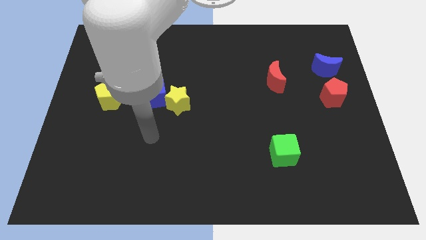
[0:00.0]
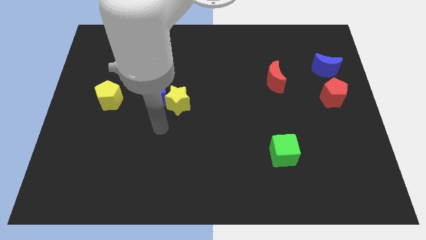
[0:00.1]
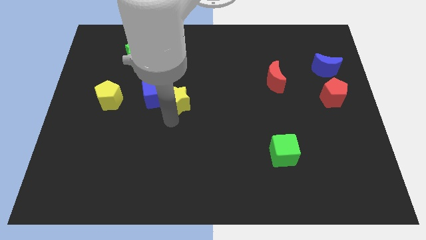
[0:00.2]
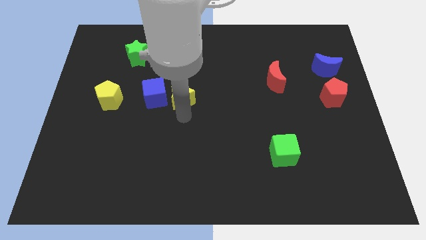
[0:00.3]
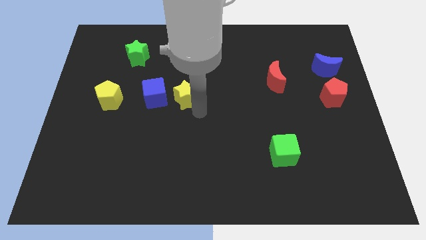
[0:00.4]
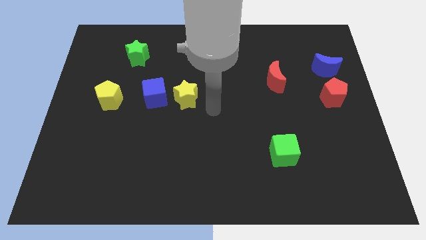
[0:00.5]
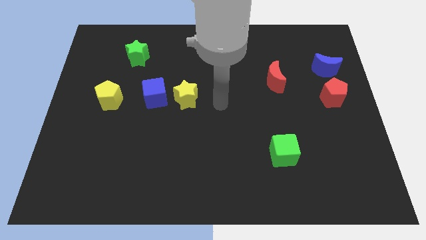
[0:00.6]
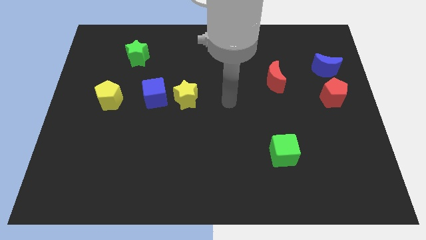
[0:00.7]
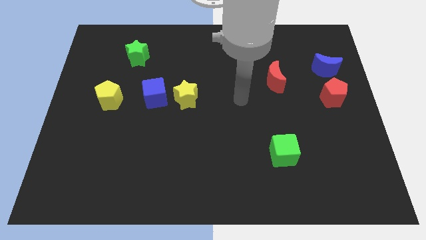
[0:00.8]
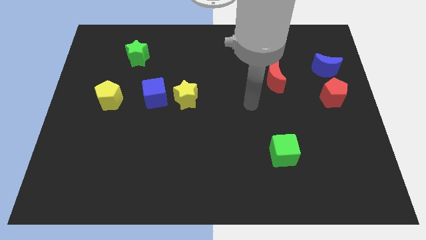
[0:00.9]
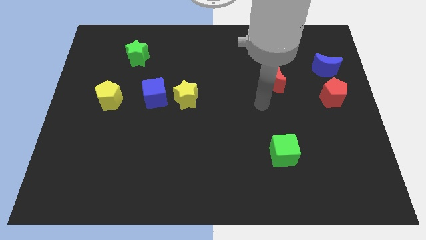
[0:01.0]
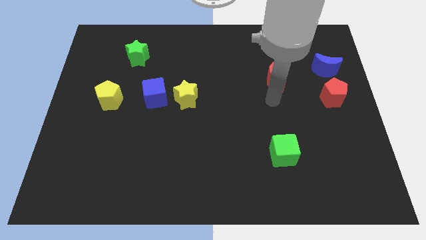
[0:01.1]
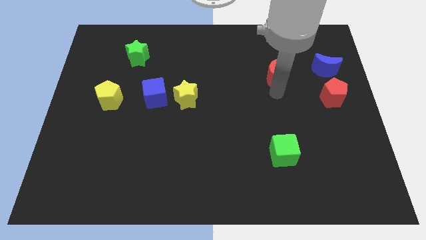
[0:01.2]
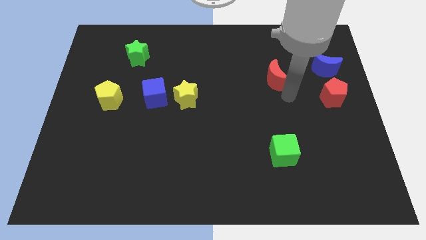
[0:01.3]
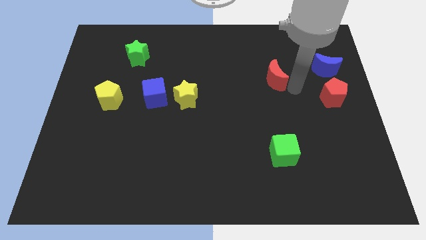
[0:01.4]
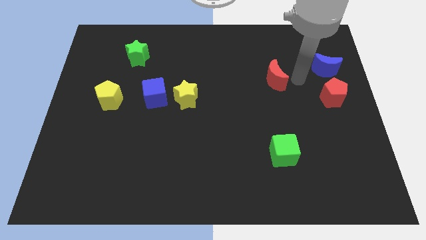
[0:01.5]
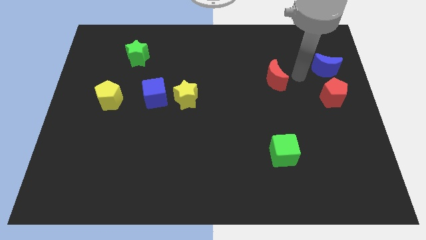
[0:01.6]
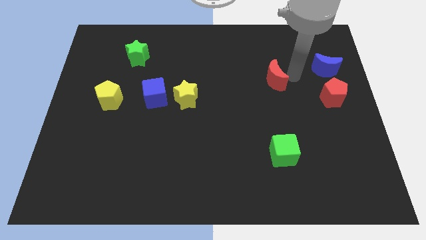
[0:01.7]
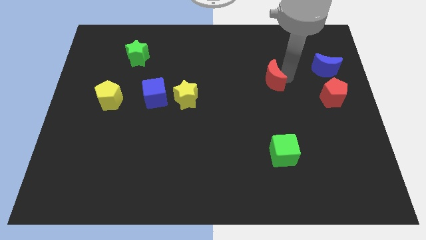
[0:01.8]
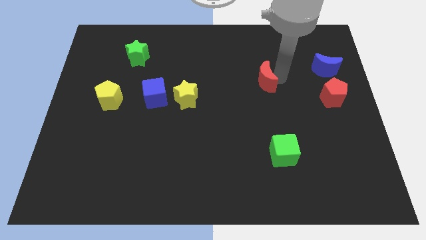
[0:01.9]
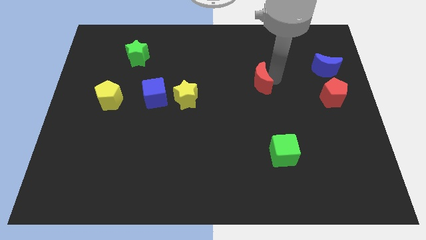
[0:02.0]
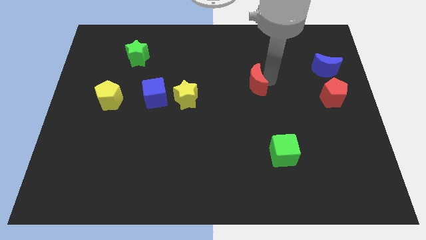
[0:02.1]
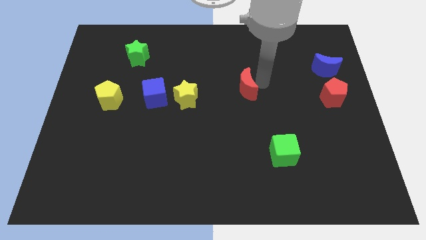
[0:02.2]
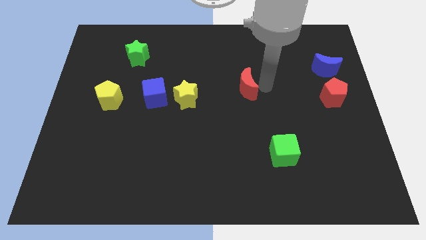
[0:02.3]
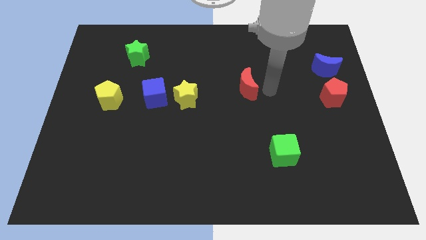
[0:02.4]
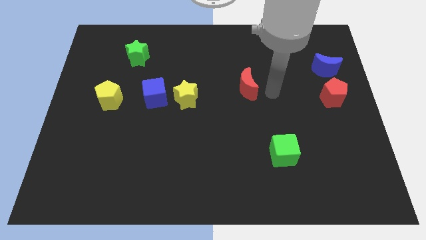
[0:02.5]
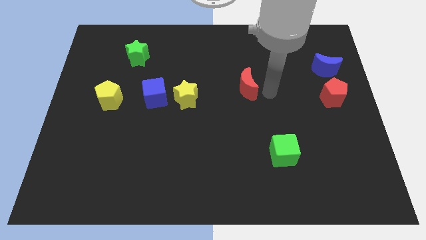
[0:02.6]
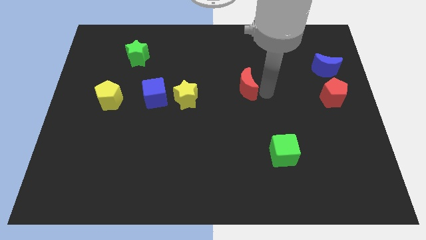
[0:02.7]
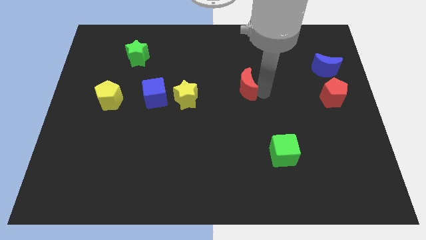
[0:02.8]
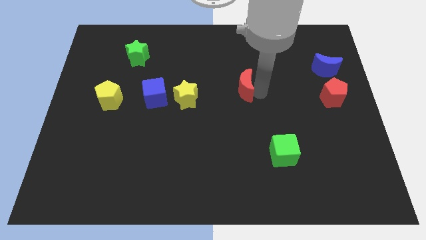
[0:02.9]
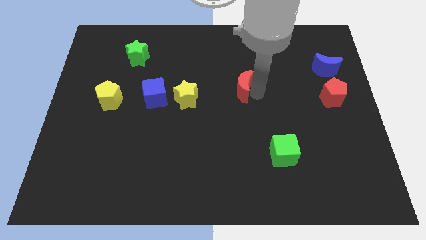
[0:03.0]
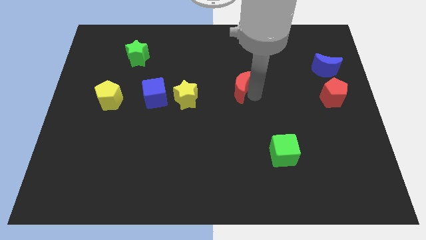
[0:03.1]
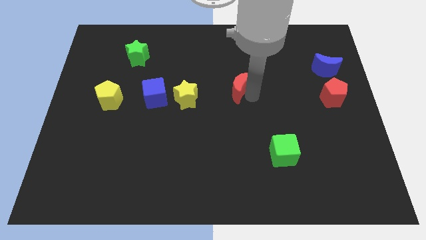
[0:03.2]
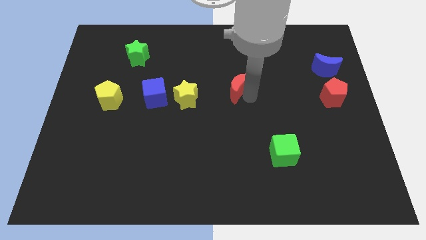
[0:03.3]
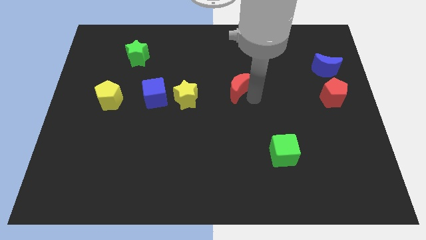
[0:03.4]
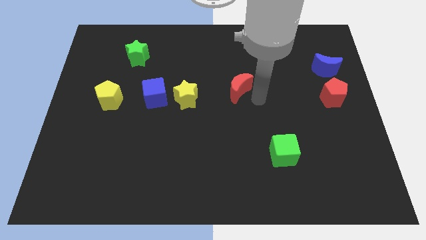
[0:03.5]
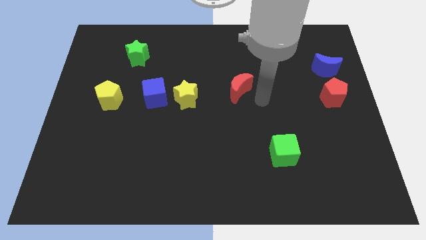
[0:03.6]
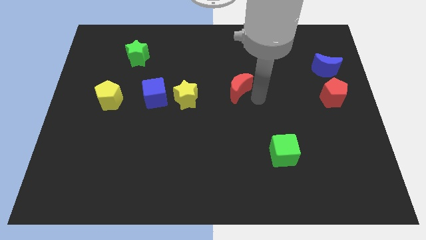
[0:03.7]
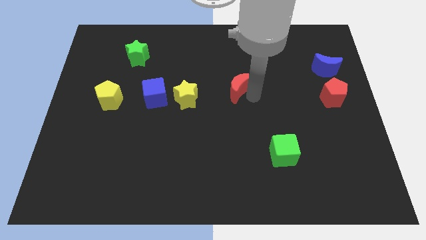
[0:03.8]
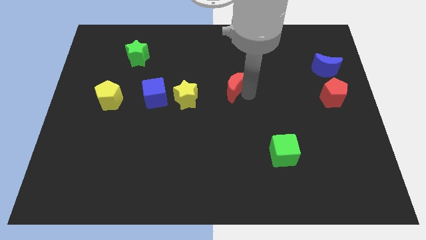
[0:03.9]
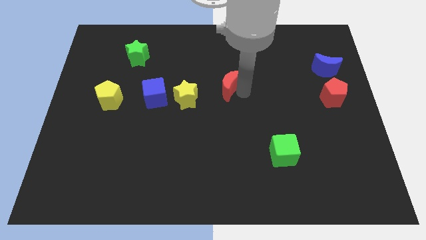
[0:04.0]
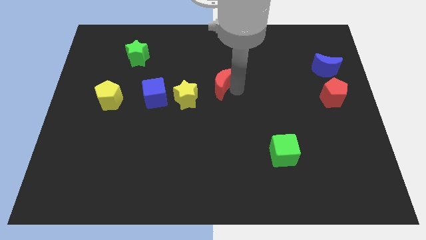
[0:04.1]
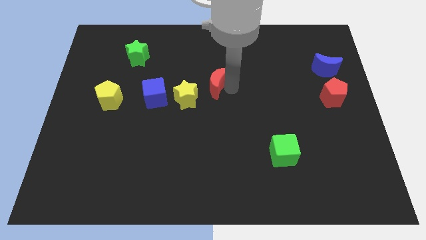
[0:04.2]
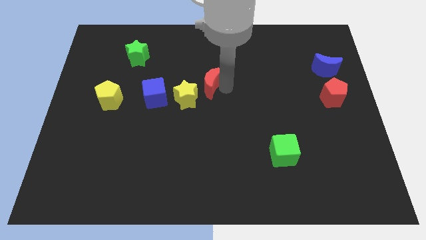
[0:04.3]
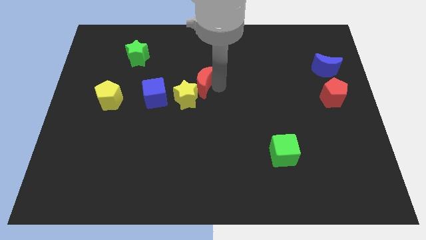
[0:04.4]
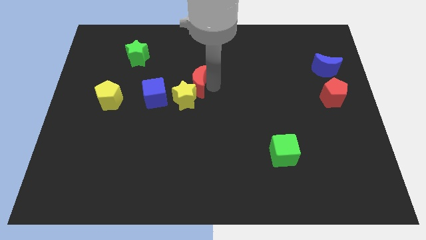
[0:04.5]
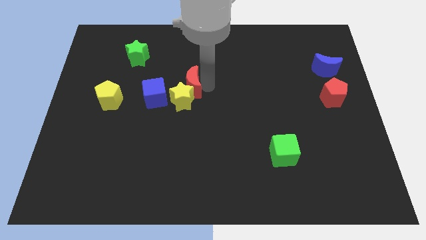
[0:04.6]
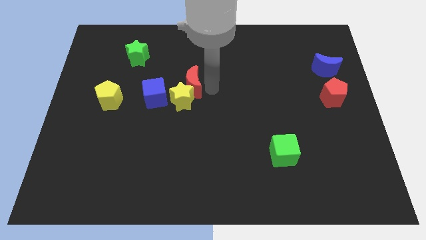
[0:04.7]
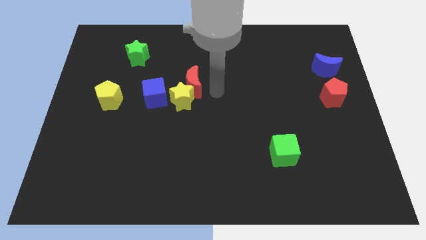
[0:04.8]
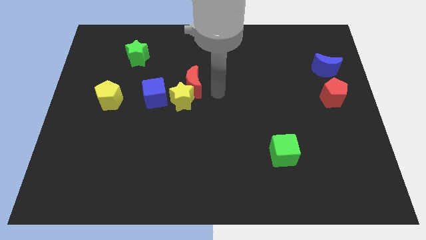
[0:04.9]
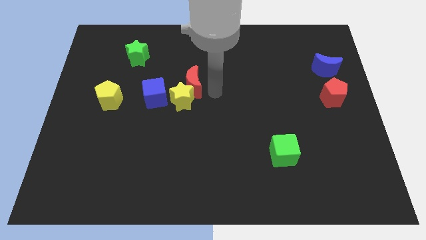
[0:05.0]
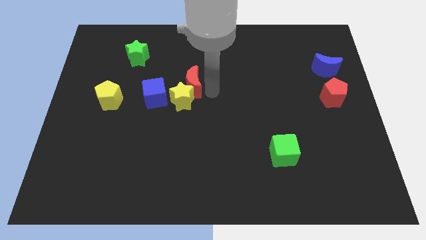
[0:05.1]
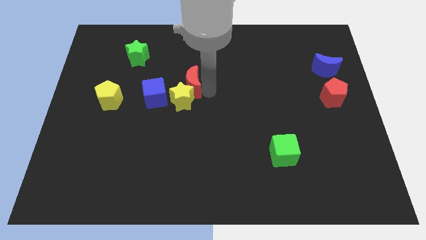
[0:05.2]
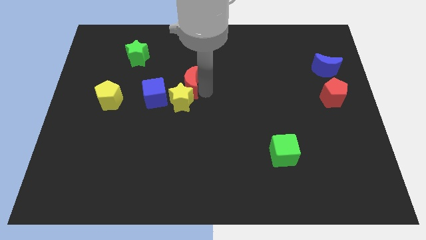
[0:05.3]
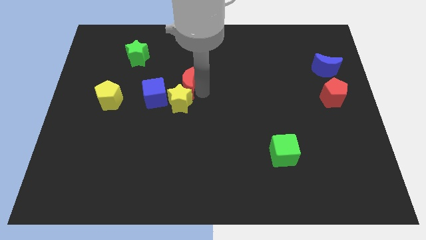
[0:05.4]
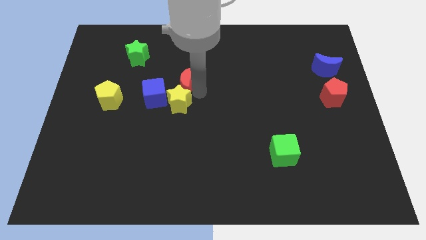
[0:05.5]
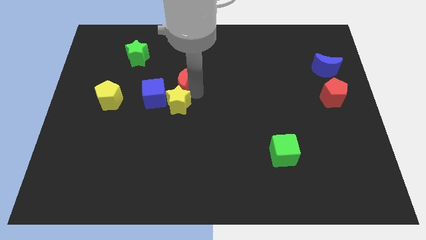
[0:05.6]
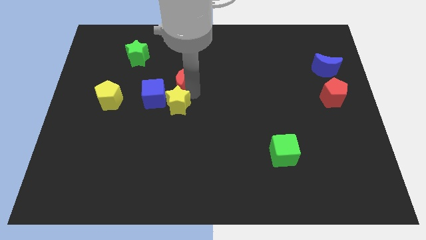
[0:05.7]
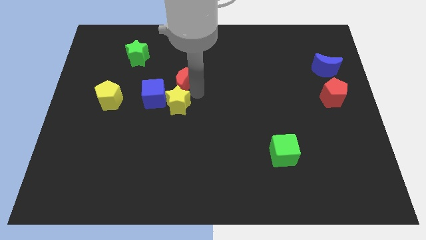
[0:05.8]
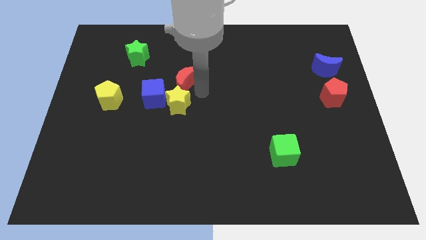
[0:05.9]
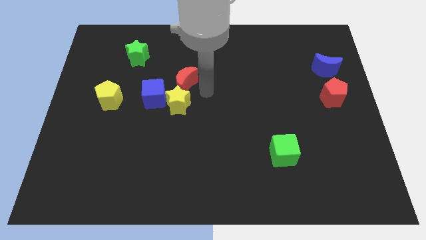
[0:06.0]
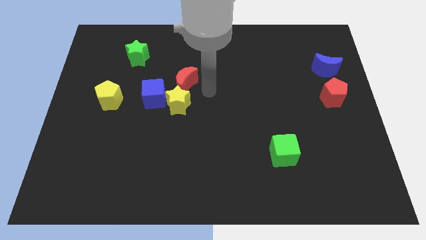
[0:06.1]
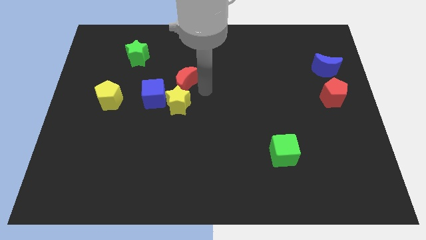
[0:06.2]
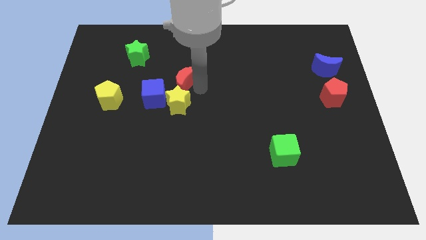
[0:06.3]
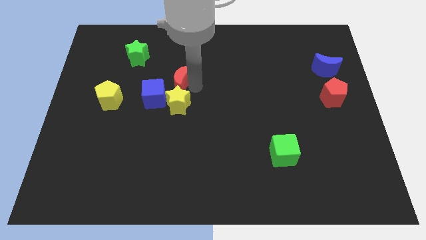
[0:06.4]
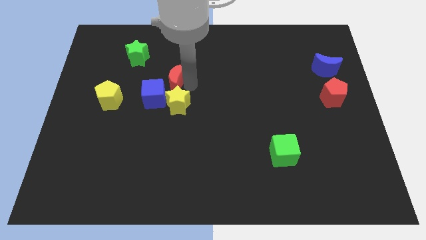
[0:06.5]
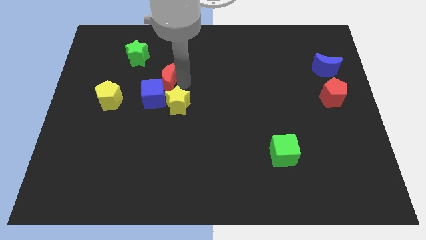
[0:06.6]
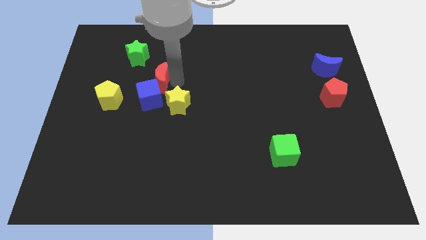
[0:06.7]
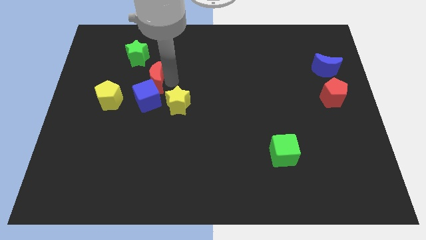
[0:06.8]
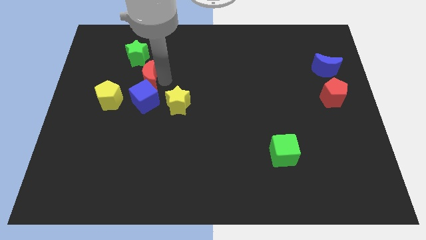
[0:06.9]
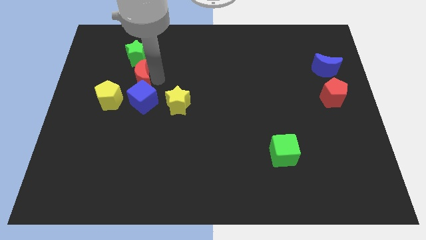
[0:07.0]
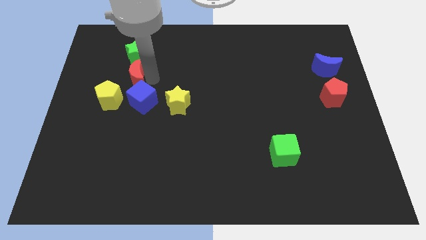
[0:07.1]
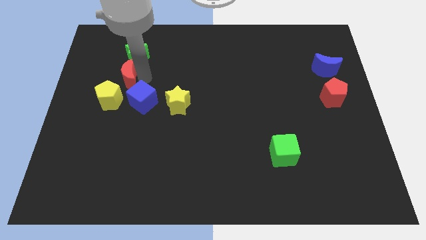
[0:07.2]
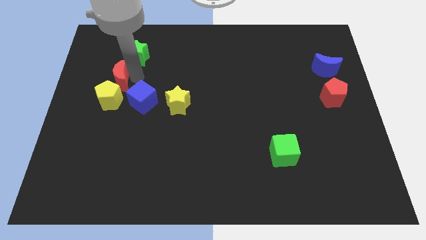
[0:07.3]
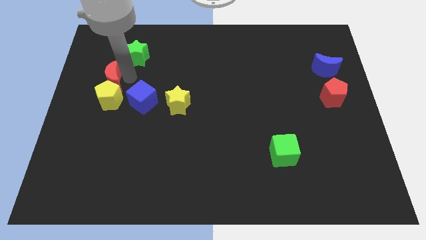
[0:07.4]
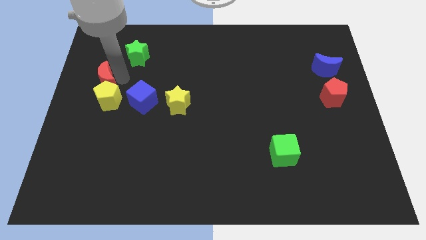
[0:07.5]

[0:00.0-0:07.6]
push the red moon to the left side
